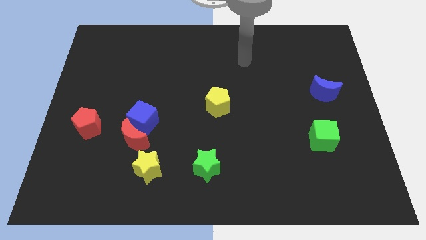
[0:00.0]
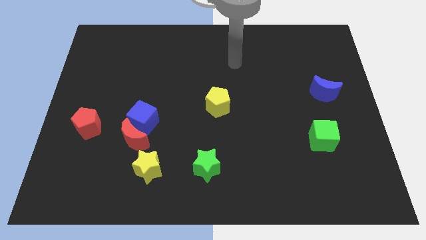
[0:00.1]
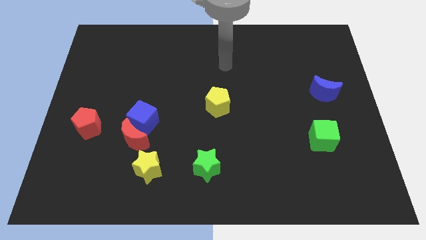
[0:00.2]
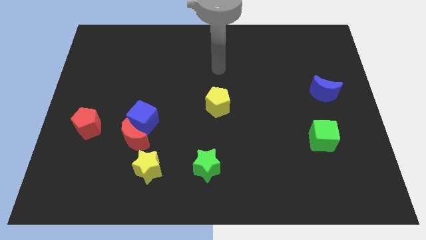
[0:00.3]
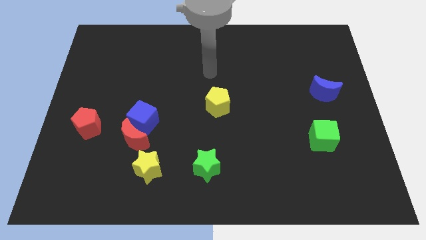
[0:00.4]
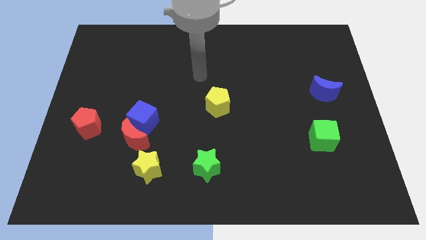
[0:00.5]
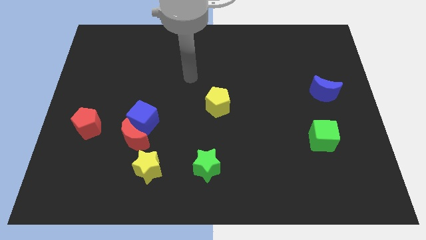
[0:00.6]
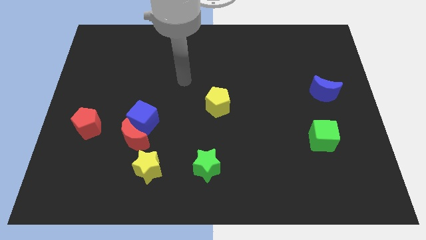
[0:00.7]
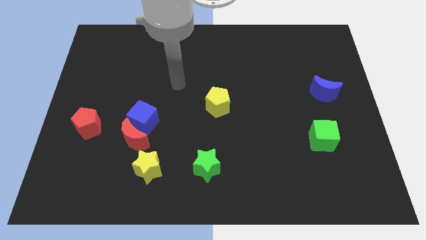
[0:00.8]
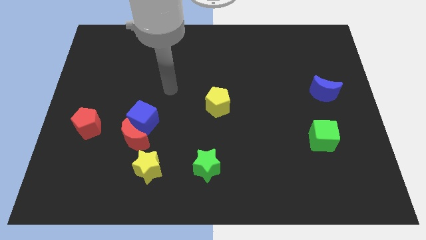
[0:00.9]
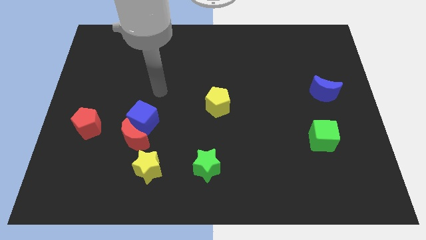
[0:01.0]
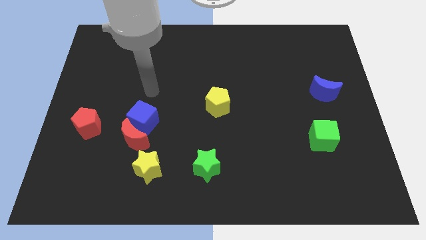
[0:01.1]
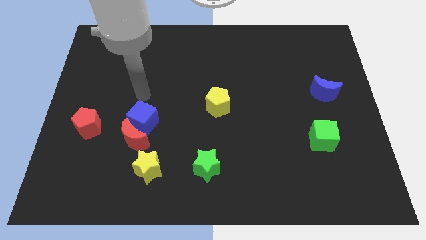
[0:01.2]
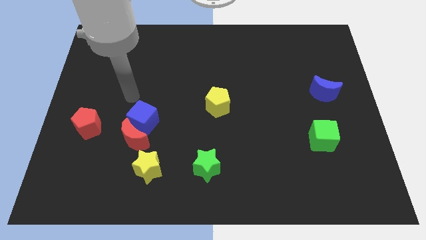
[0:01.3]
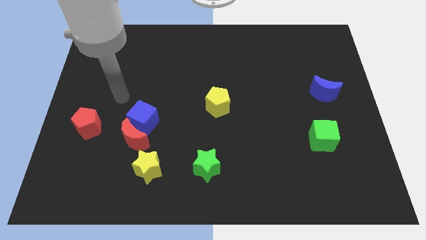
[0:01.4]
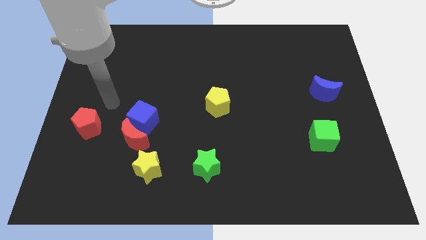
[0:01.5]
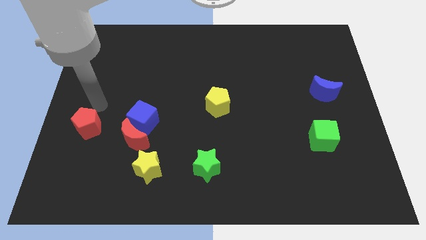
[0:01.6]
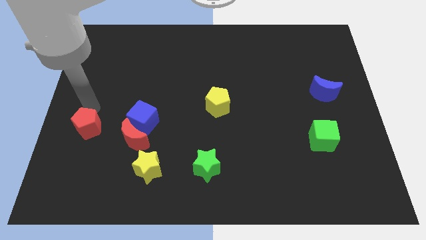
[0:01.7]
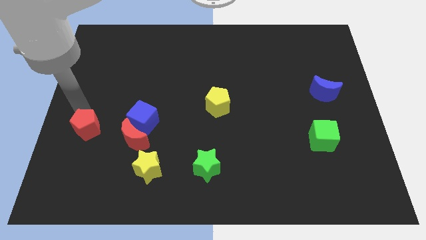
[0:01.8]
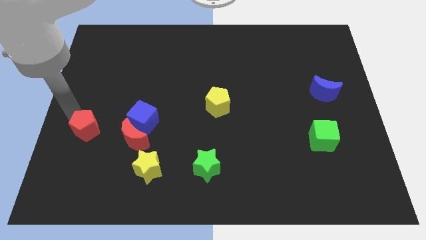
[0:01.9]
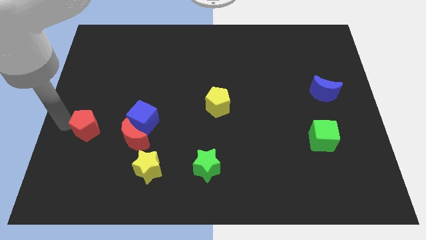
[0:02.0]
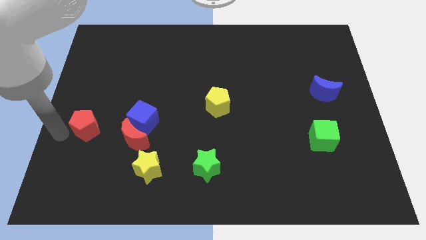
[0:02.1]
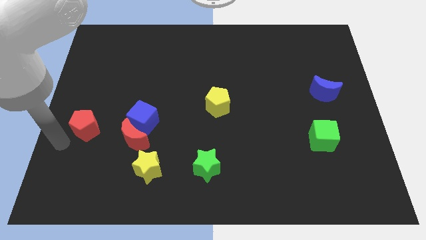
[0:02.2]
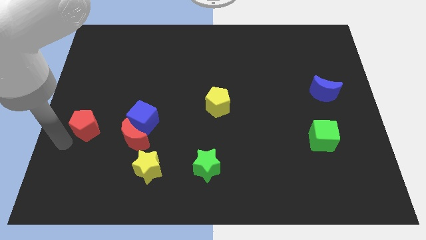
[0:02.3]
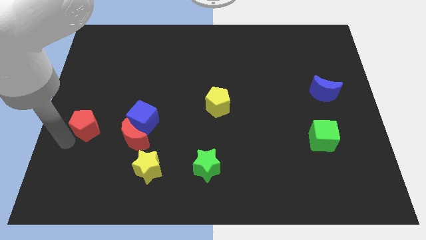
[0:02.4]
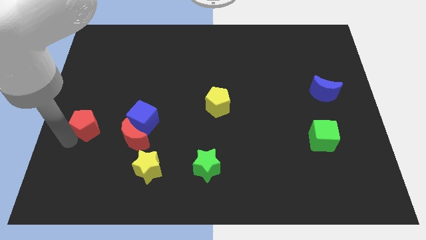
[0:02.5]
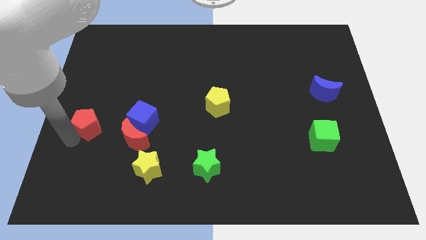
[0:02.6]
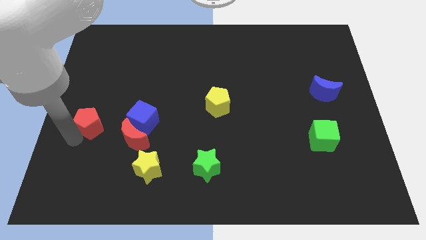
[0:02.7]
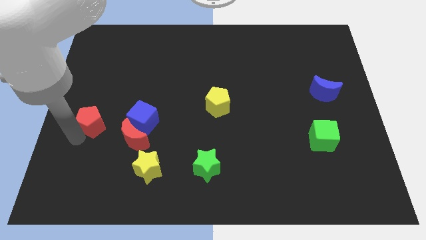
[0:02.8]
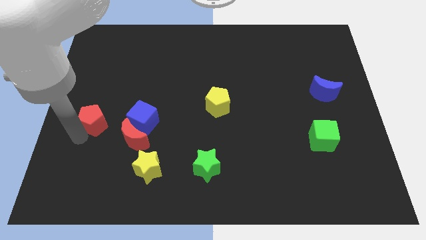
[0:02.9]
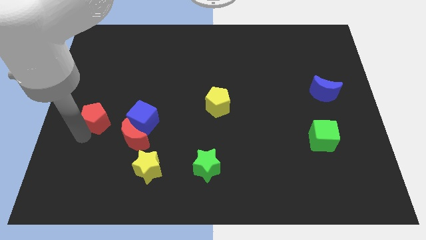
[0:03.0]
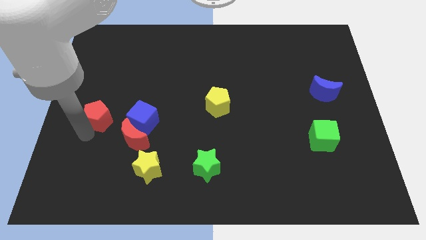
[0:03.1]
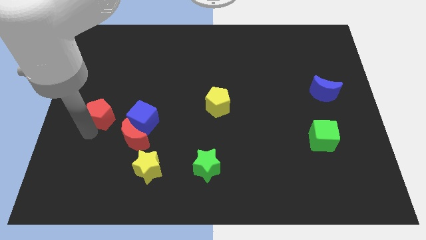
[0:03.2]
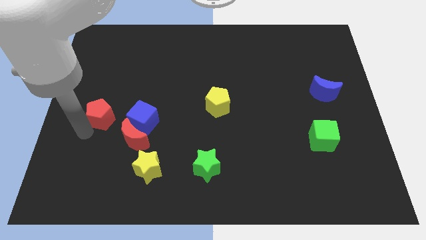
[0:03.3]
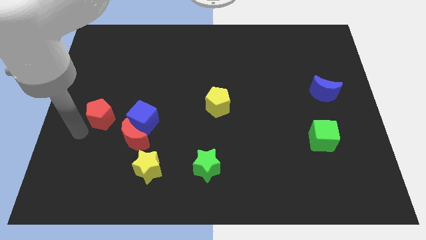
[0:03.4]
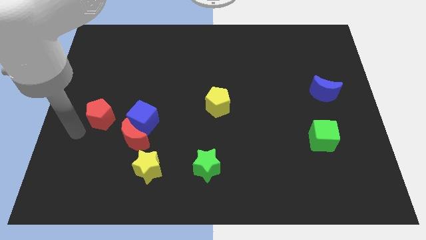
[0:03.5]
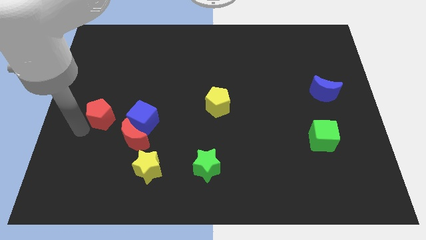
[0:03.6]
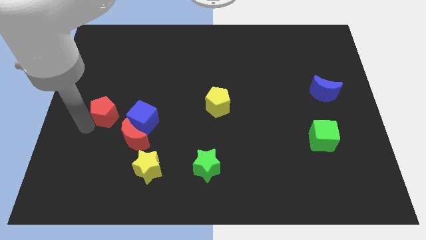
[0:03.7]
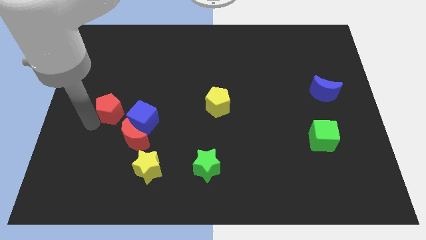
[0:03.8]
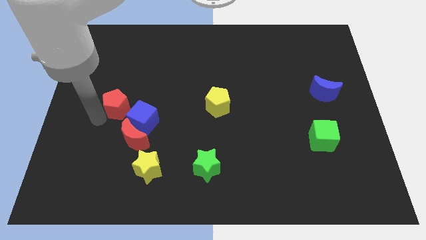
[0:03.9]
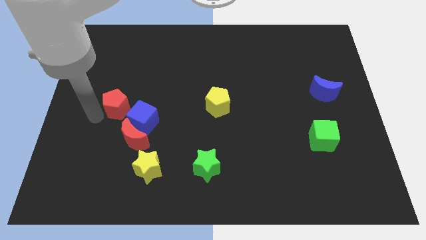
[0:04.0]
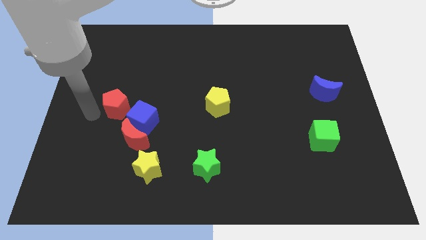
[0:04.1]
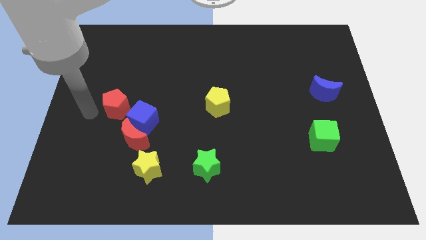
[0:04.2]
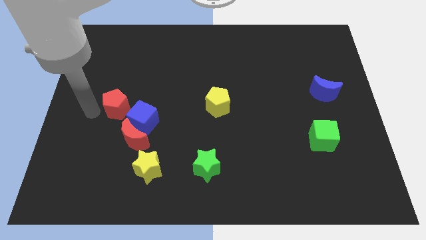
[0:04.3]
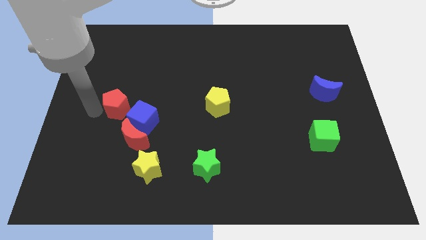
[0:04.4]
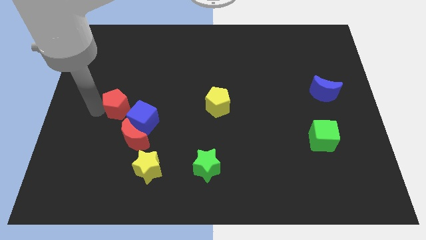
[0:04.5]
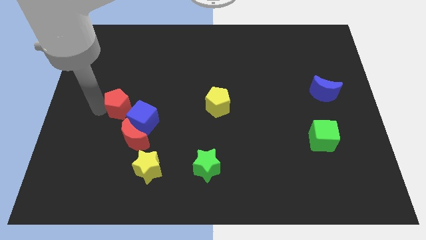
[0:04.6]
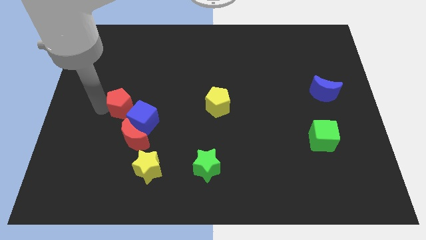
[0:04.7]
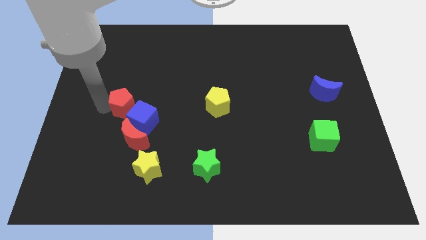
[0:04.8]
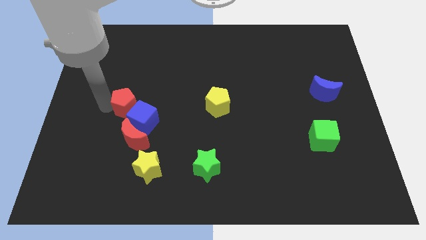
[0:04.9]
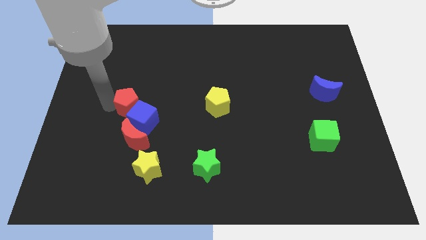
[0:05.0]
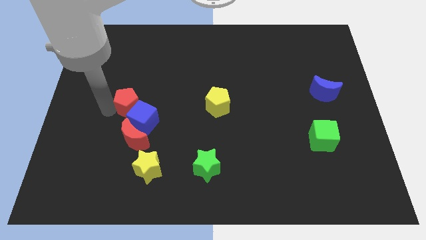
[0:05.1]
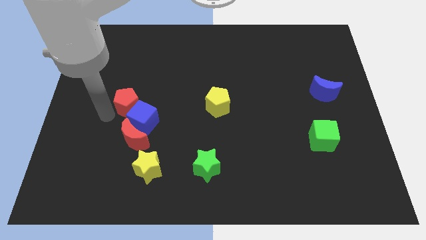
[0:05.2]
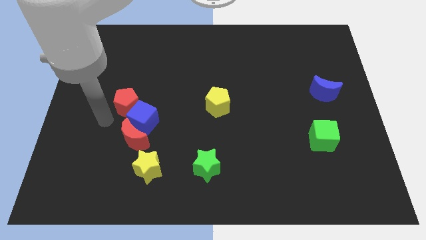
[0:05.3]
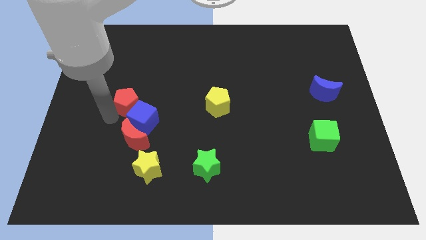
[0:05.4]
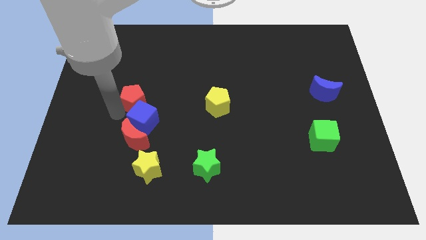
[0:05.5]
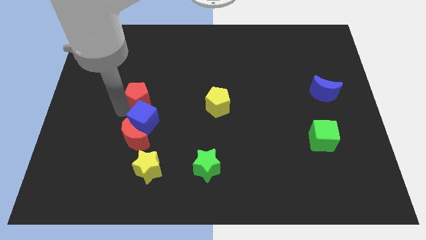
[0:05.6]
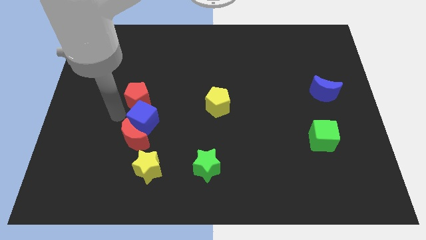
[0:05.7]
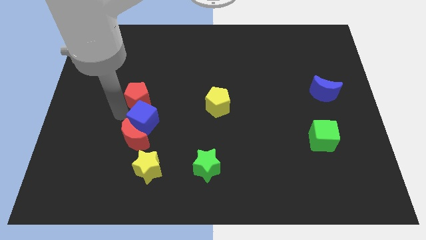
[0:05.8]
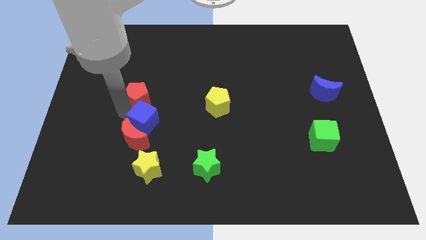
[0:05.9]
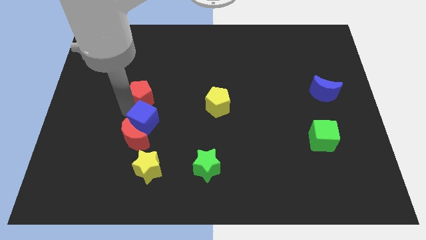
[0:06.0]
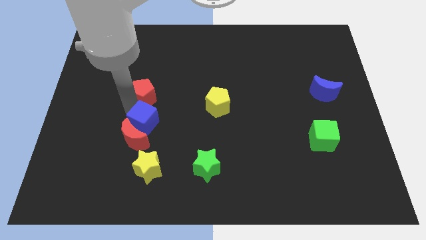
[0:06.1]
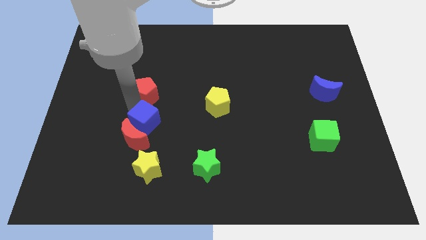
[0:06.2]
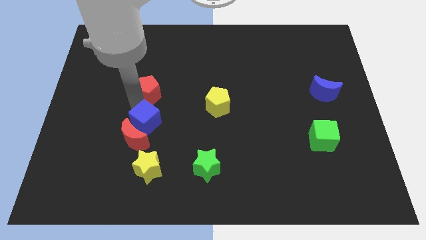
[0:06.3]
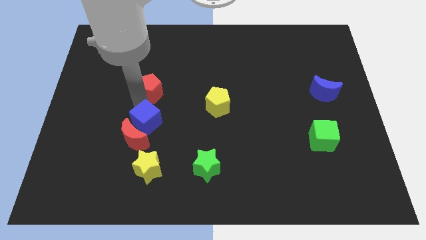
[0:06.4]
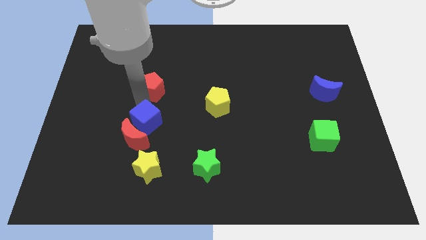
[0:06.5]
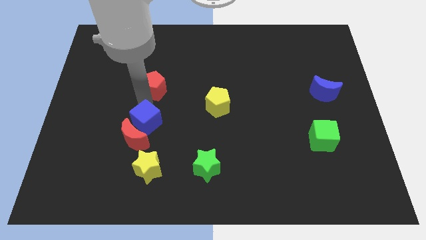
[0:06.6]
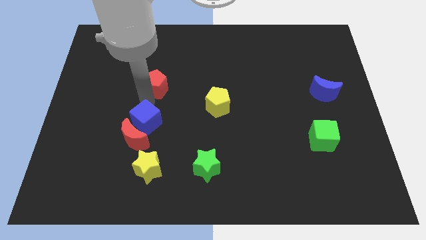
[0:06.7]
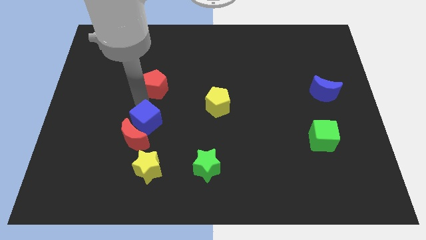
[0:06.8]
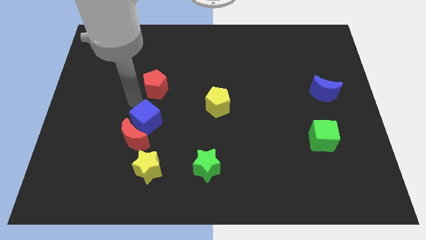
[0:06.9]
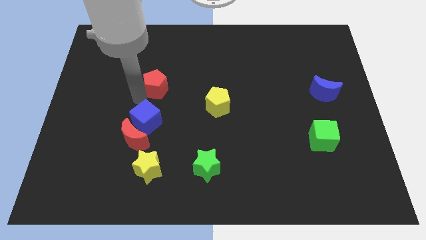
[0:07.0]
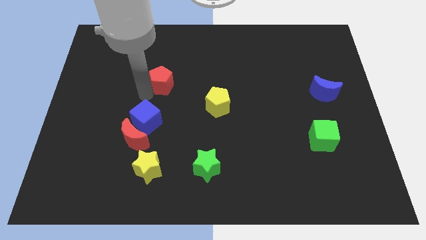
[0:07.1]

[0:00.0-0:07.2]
slide the red pentagon diagonally up and right

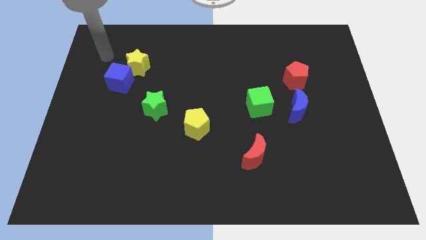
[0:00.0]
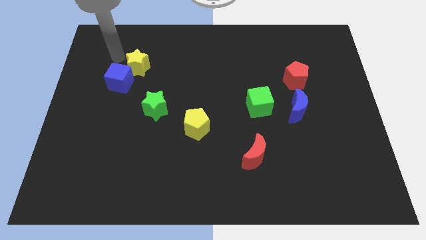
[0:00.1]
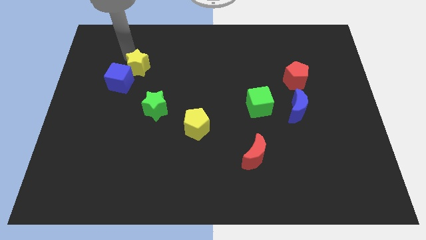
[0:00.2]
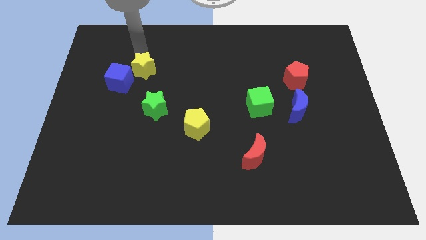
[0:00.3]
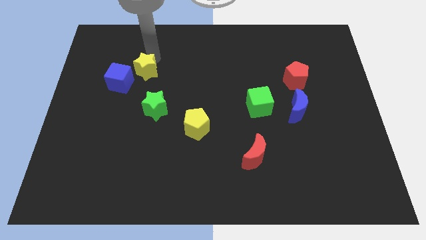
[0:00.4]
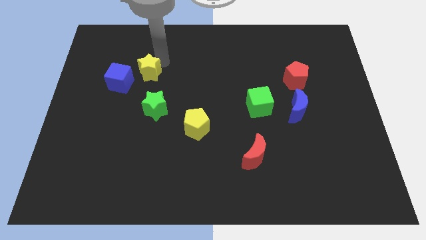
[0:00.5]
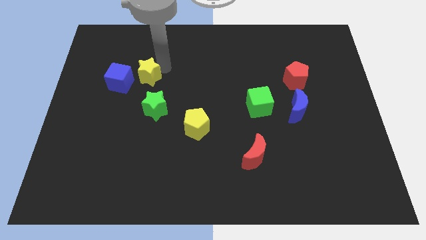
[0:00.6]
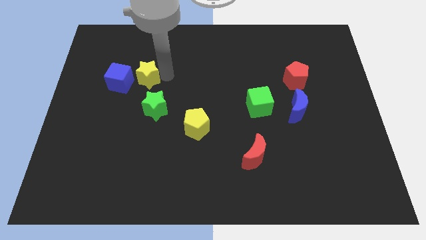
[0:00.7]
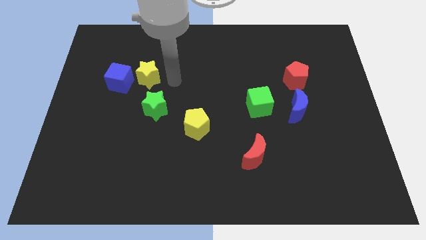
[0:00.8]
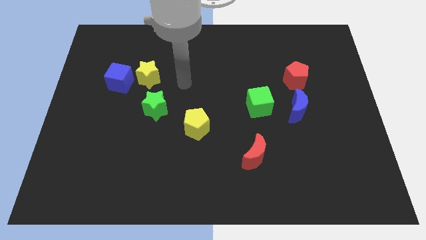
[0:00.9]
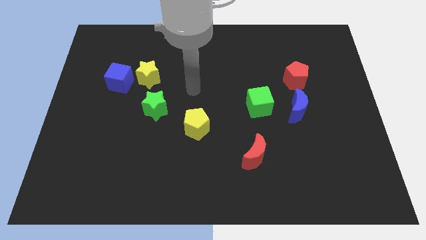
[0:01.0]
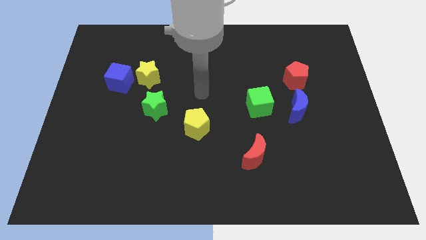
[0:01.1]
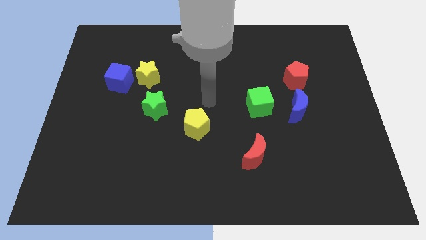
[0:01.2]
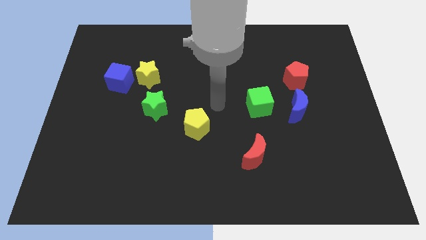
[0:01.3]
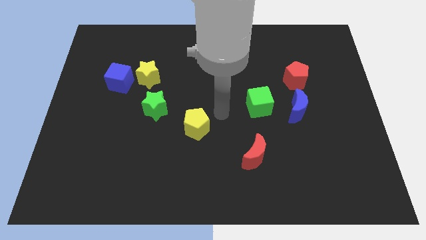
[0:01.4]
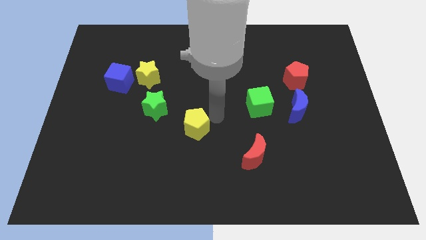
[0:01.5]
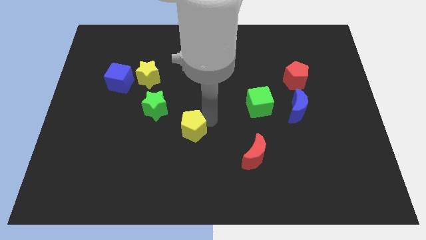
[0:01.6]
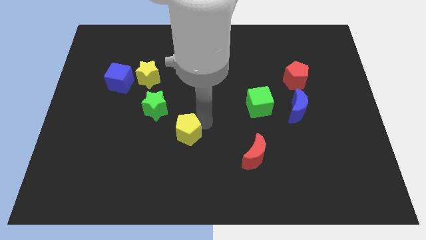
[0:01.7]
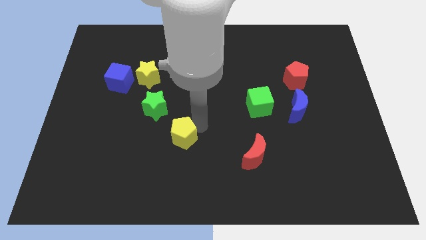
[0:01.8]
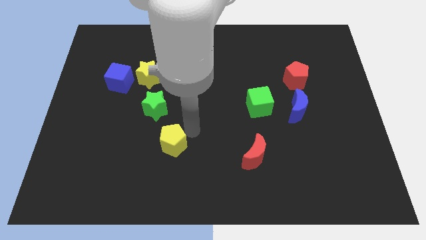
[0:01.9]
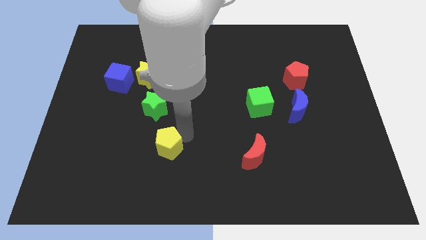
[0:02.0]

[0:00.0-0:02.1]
slide the yellow pentagon down and to the left a little bit
